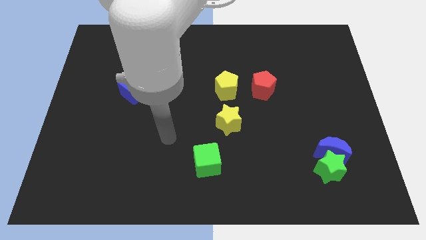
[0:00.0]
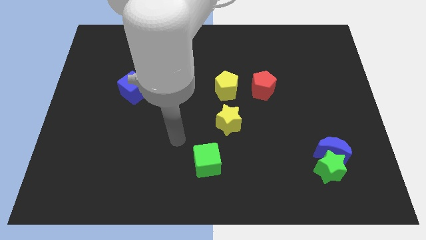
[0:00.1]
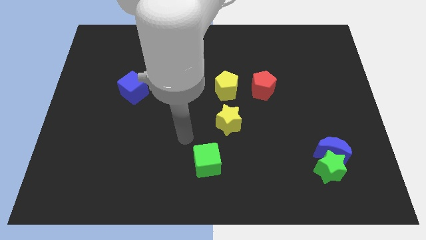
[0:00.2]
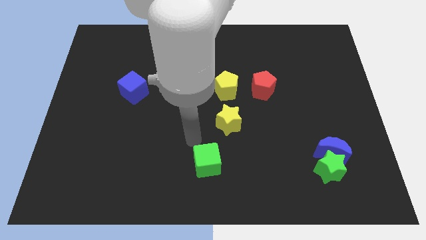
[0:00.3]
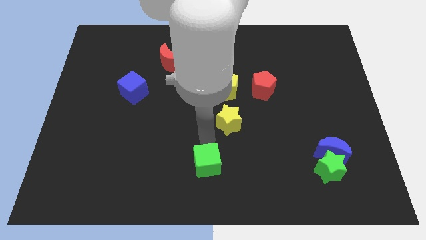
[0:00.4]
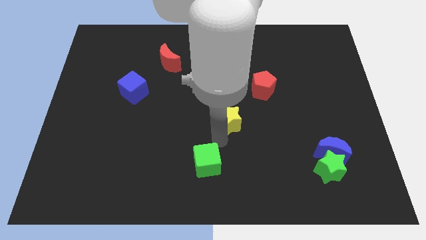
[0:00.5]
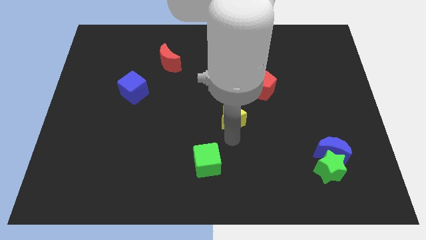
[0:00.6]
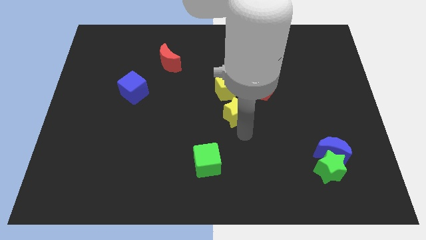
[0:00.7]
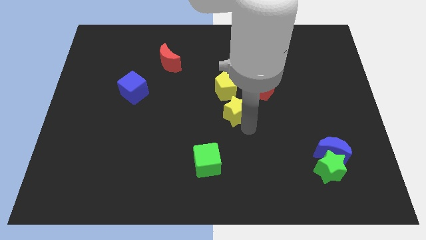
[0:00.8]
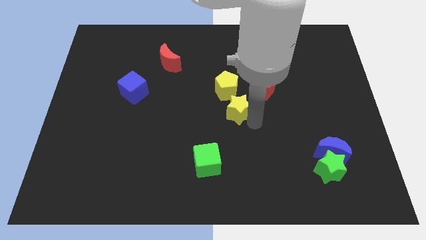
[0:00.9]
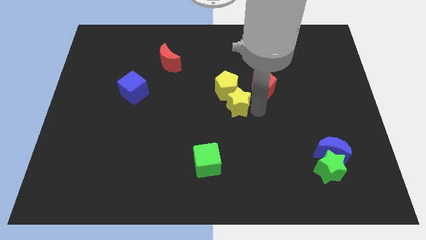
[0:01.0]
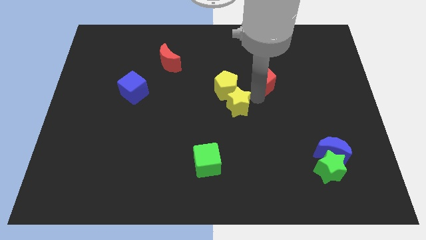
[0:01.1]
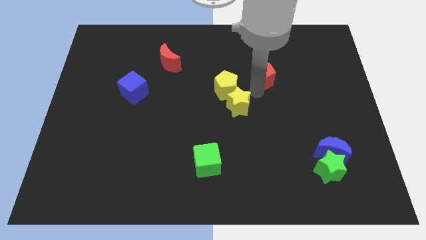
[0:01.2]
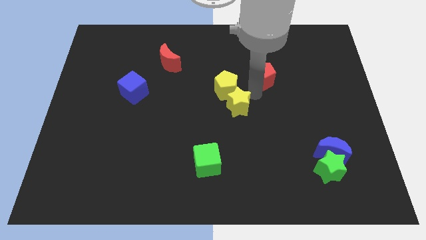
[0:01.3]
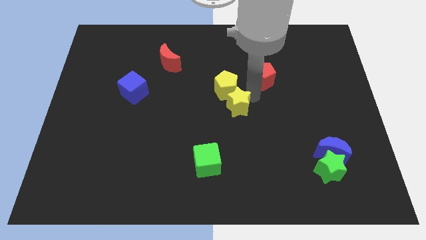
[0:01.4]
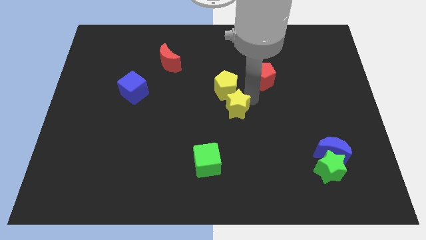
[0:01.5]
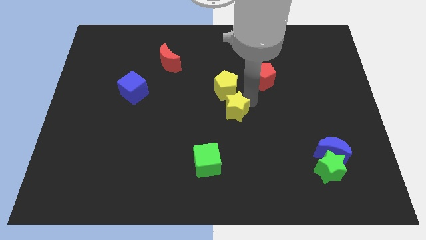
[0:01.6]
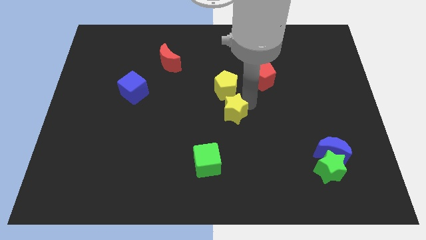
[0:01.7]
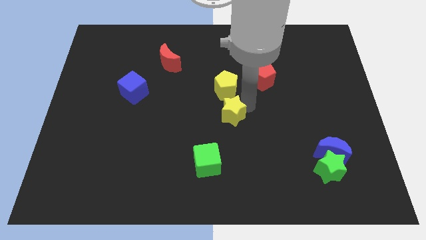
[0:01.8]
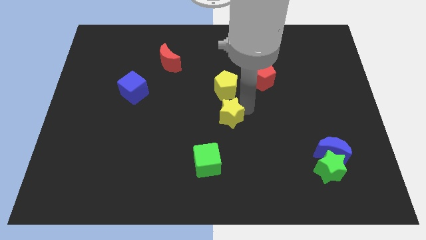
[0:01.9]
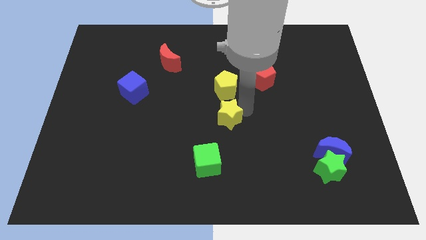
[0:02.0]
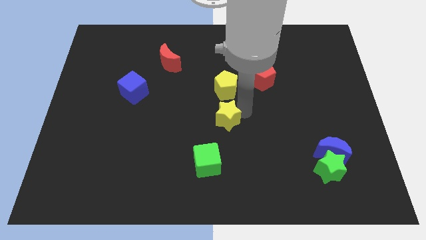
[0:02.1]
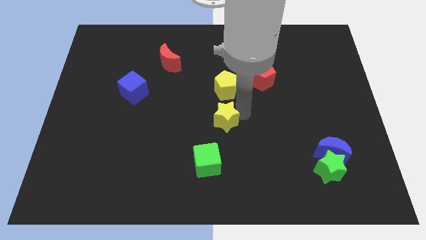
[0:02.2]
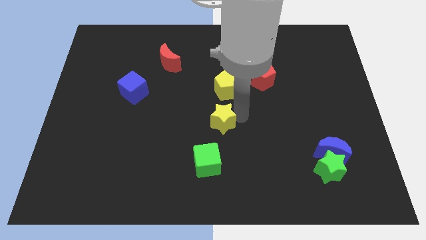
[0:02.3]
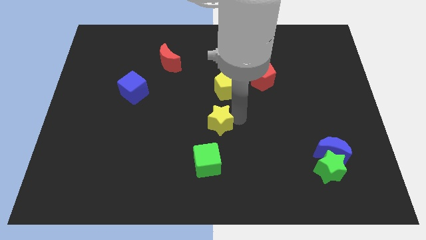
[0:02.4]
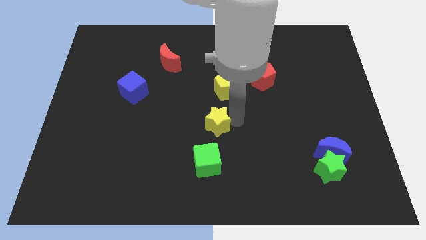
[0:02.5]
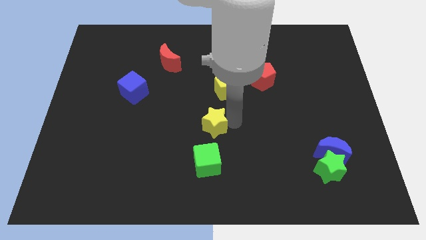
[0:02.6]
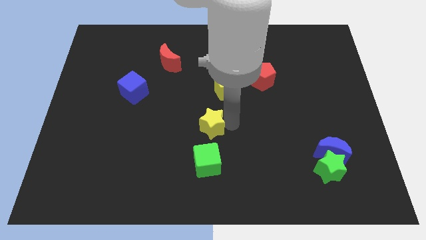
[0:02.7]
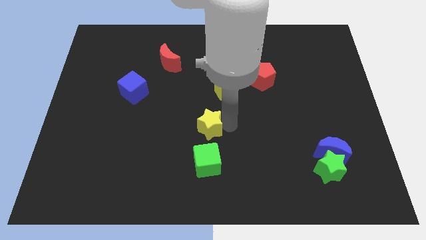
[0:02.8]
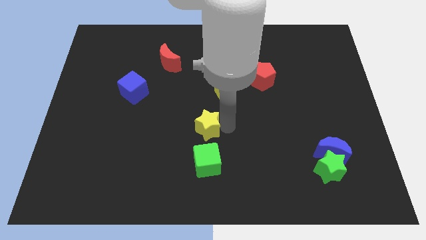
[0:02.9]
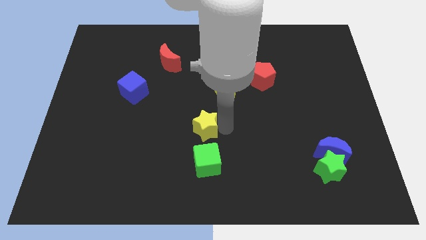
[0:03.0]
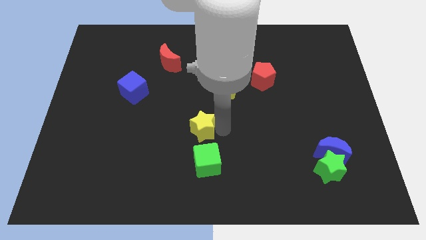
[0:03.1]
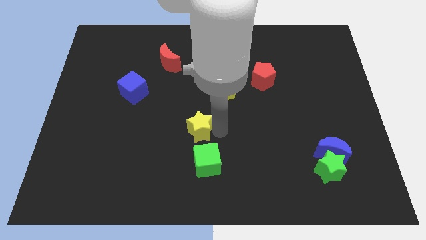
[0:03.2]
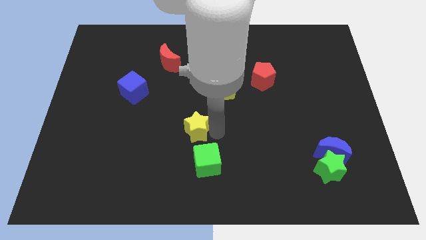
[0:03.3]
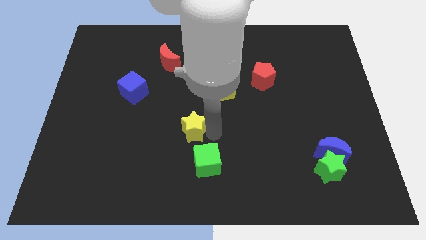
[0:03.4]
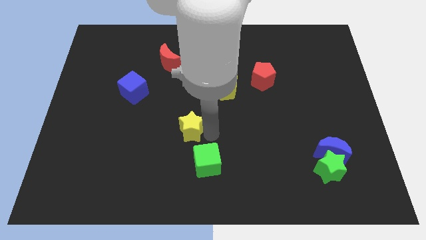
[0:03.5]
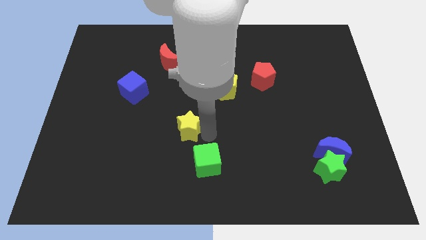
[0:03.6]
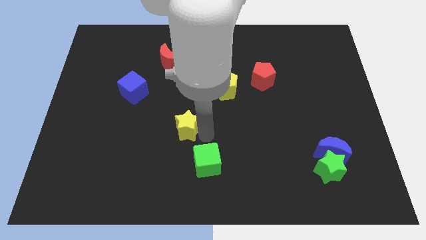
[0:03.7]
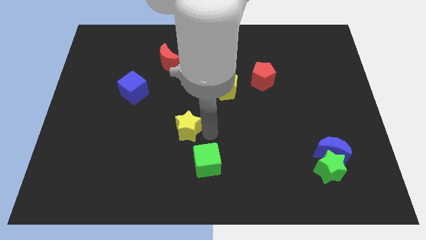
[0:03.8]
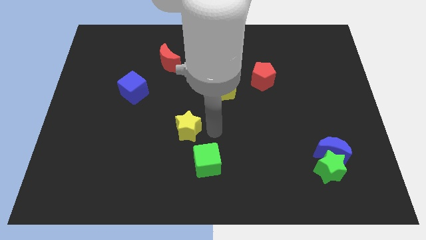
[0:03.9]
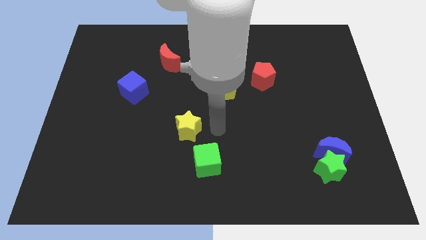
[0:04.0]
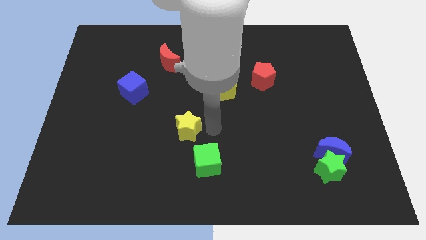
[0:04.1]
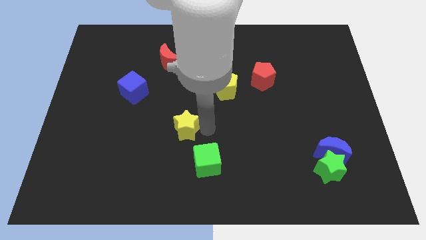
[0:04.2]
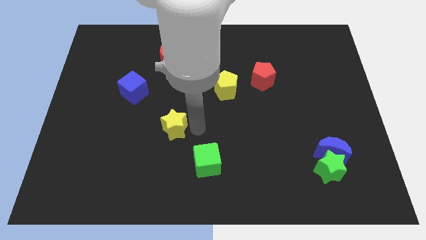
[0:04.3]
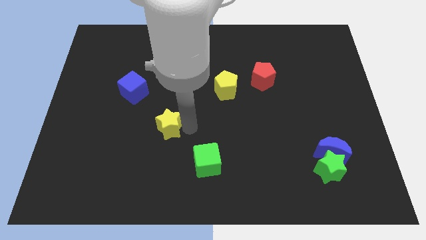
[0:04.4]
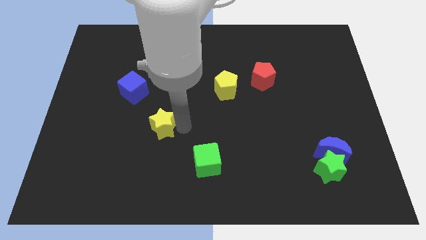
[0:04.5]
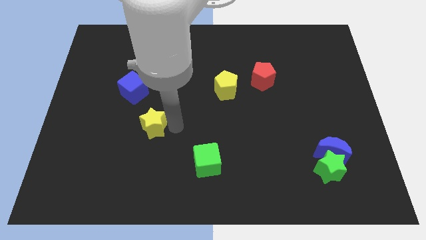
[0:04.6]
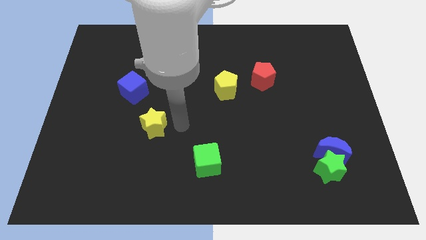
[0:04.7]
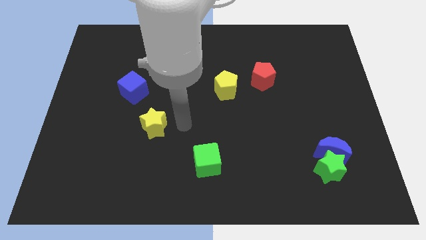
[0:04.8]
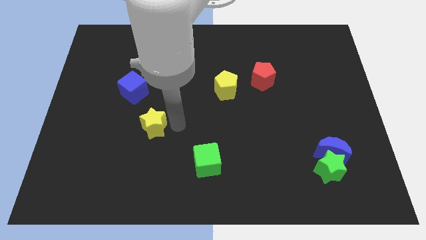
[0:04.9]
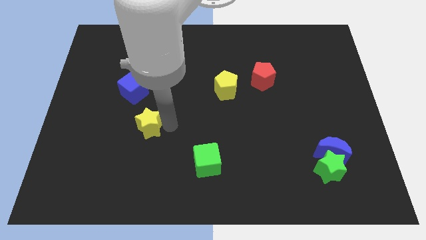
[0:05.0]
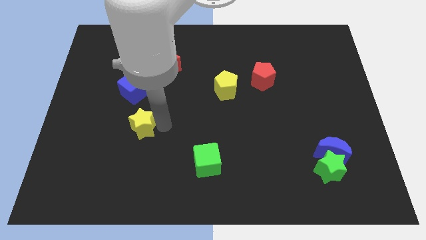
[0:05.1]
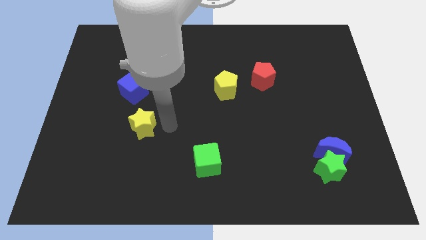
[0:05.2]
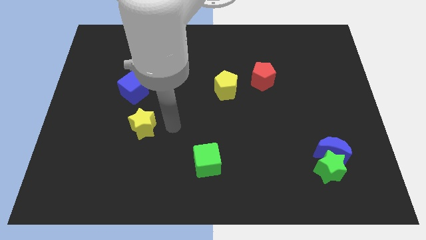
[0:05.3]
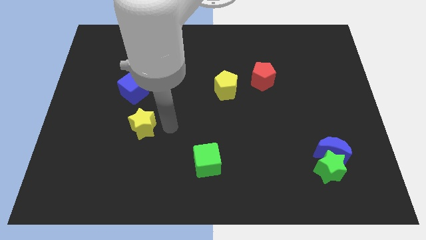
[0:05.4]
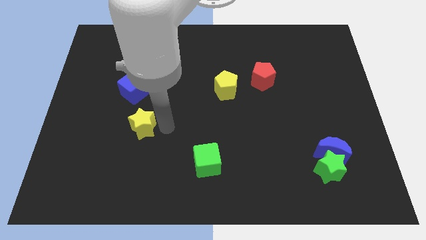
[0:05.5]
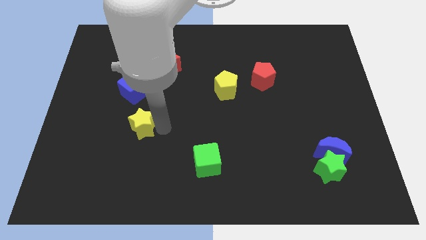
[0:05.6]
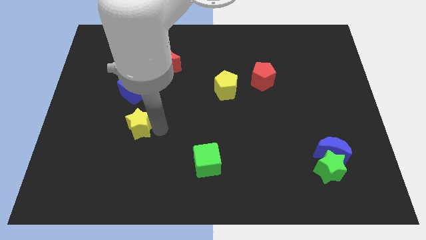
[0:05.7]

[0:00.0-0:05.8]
slide the yellow star to the left

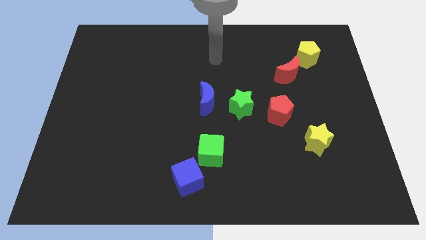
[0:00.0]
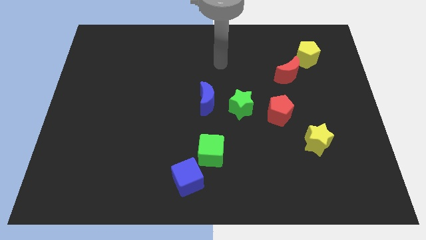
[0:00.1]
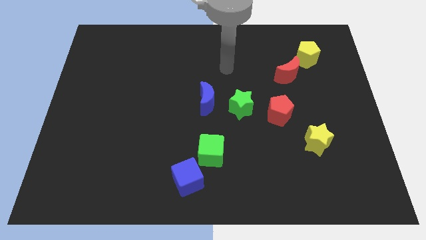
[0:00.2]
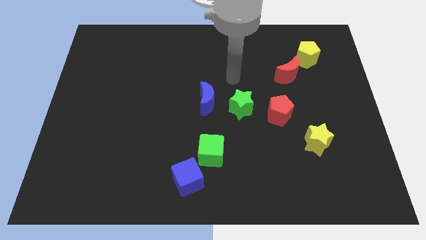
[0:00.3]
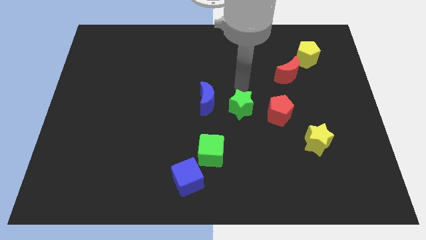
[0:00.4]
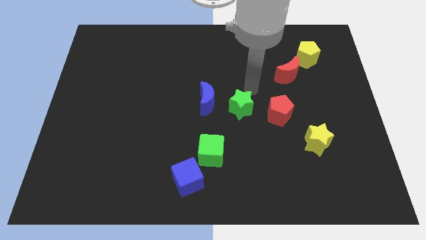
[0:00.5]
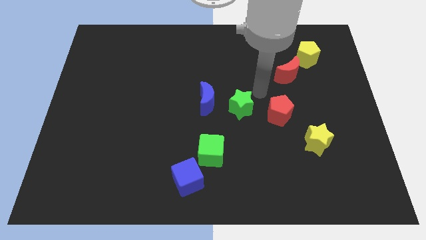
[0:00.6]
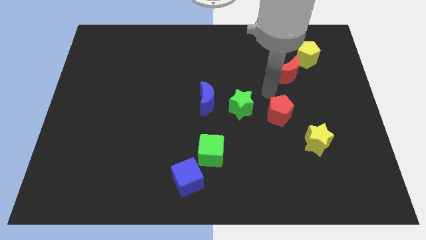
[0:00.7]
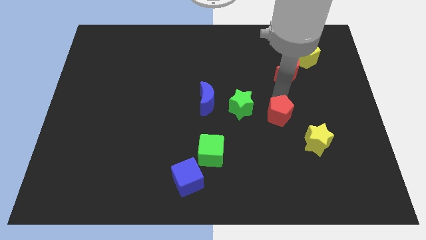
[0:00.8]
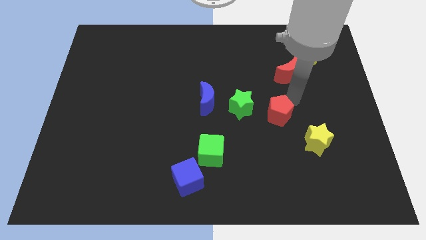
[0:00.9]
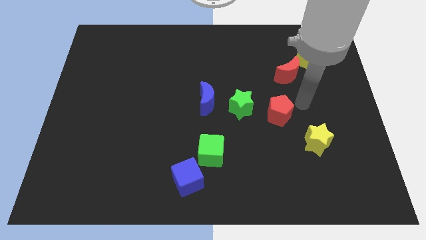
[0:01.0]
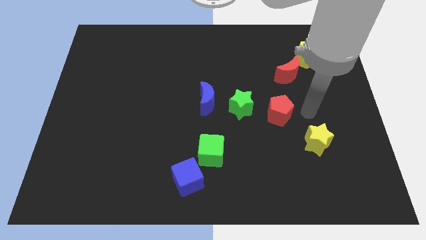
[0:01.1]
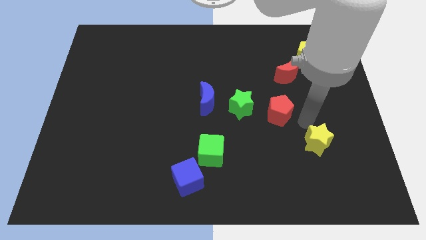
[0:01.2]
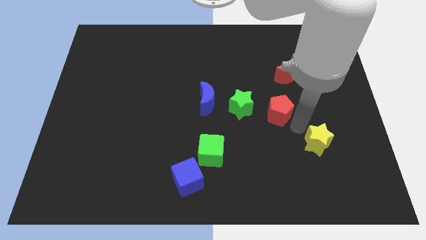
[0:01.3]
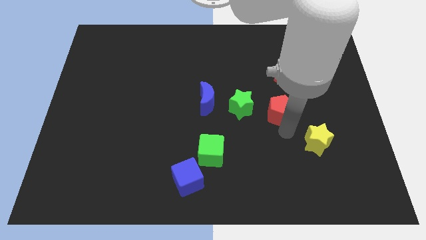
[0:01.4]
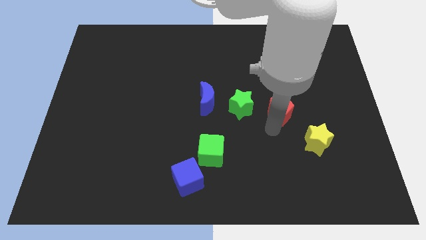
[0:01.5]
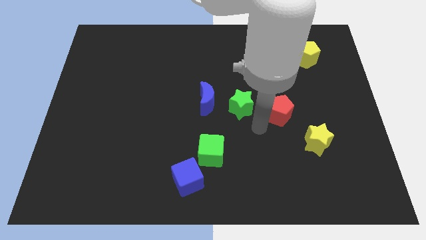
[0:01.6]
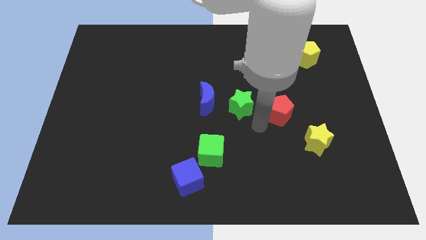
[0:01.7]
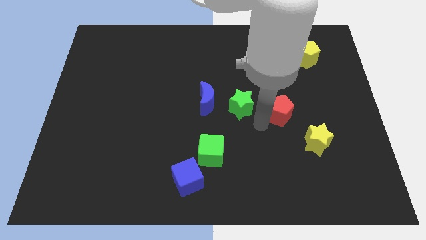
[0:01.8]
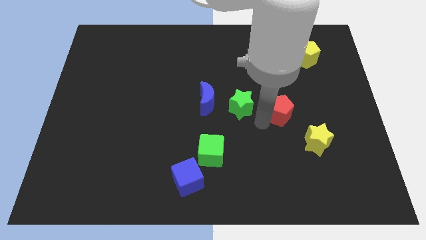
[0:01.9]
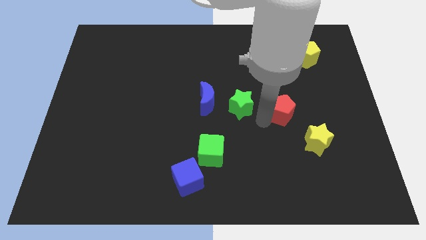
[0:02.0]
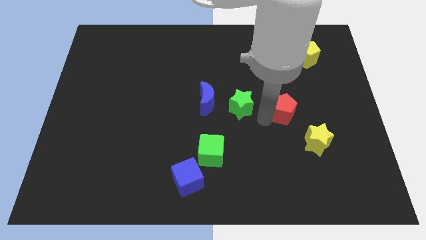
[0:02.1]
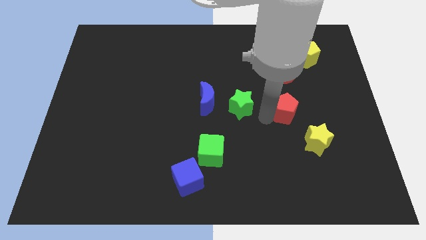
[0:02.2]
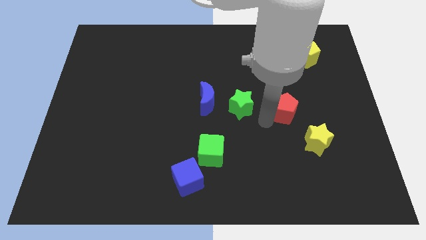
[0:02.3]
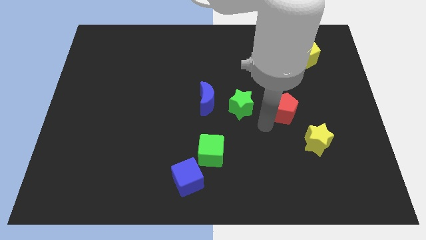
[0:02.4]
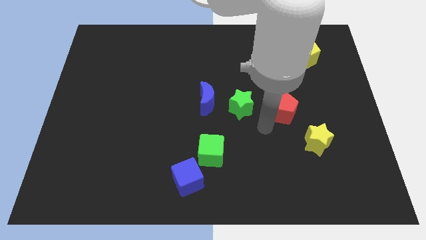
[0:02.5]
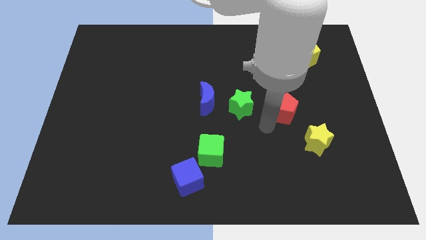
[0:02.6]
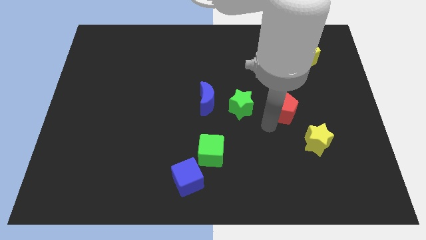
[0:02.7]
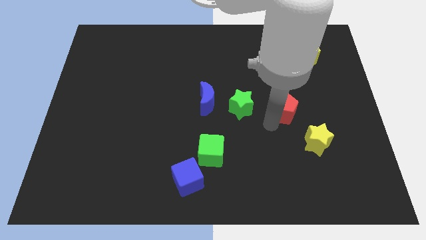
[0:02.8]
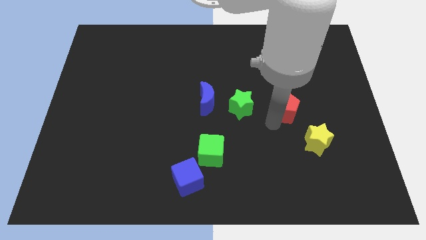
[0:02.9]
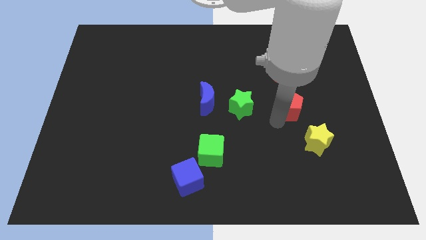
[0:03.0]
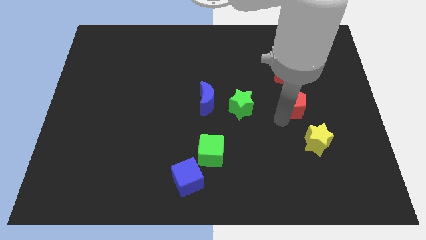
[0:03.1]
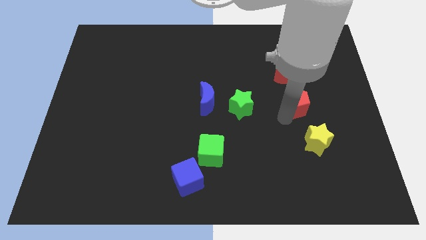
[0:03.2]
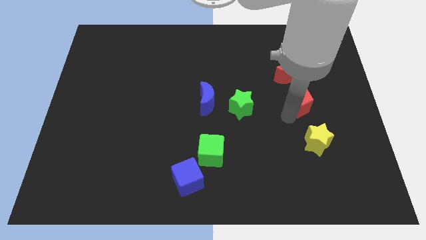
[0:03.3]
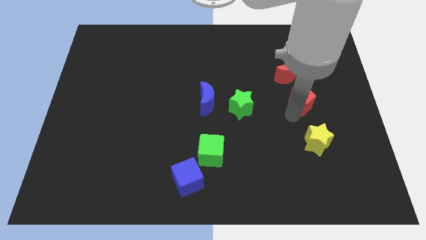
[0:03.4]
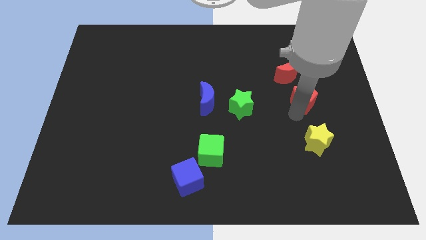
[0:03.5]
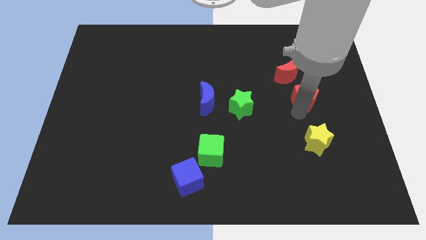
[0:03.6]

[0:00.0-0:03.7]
slide the red pentagon up and then to the right a little
